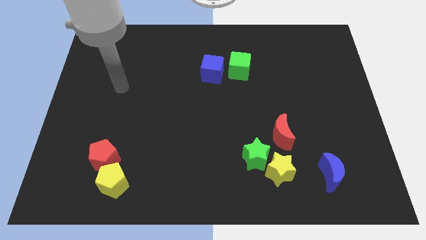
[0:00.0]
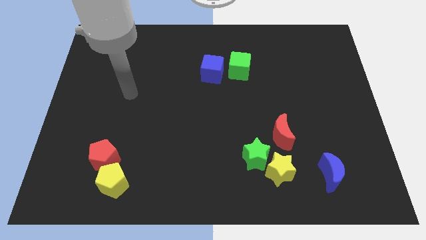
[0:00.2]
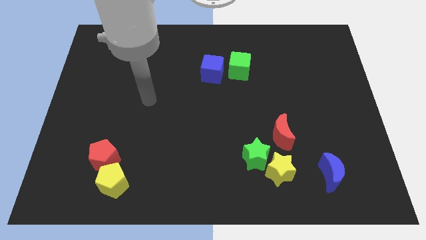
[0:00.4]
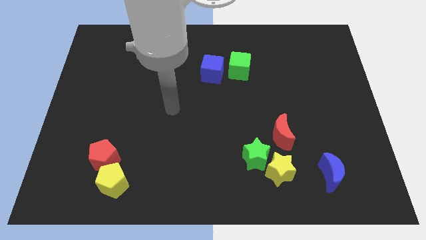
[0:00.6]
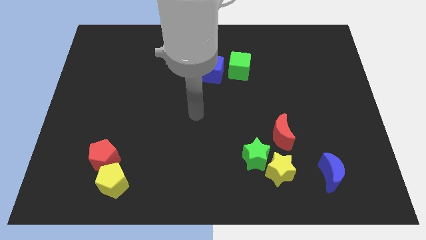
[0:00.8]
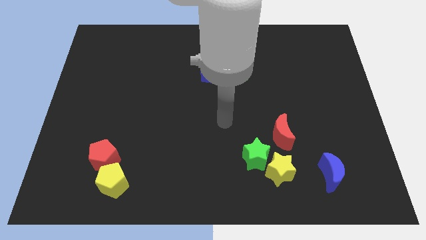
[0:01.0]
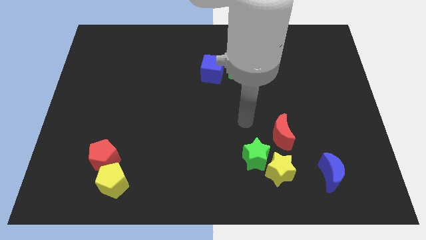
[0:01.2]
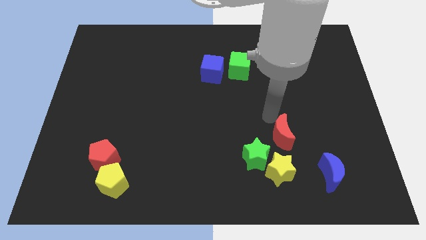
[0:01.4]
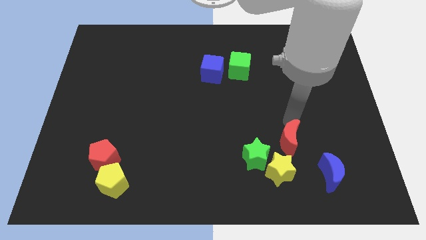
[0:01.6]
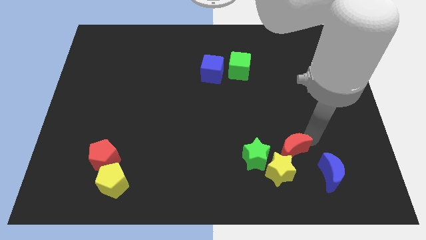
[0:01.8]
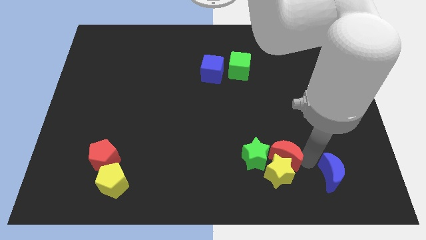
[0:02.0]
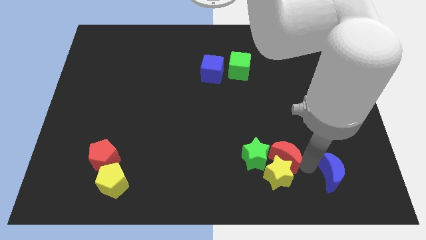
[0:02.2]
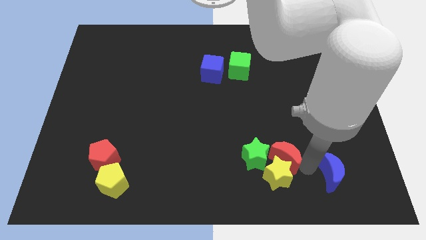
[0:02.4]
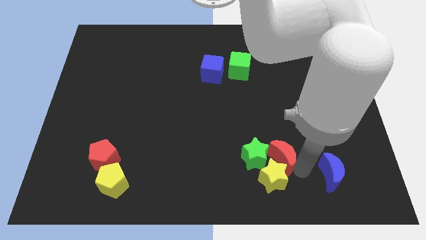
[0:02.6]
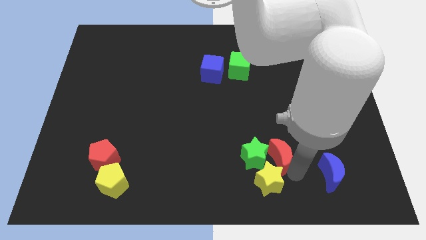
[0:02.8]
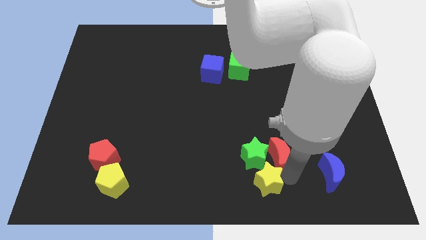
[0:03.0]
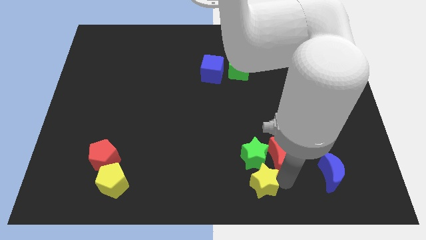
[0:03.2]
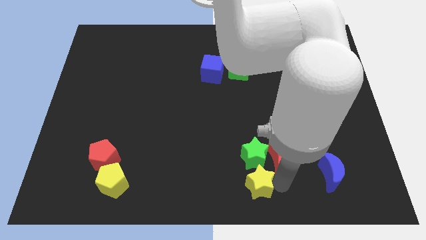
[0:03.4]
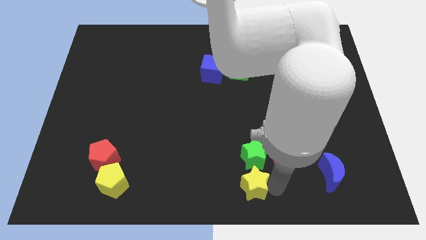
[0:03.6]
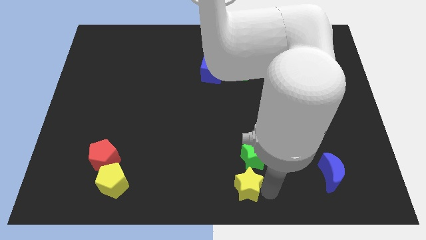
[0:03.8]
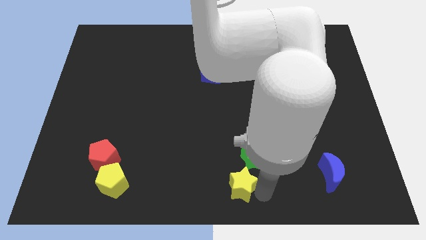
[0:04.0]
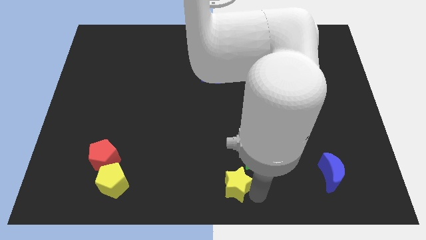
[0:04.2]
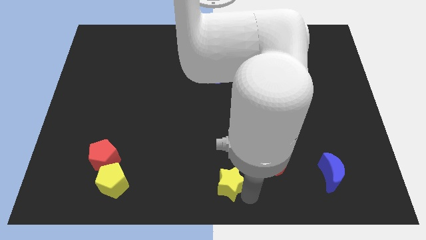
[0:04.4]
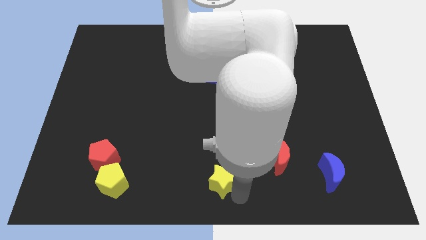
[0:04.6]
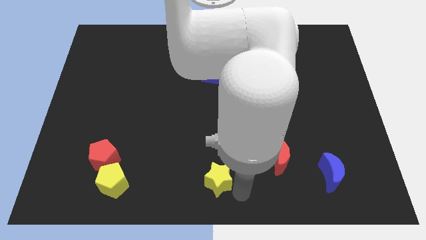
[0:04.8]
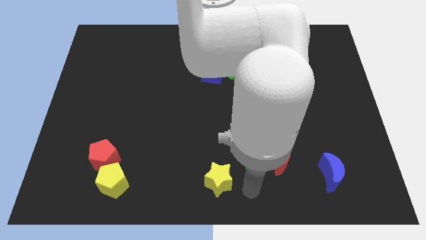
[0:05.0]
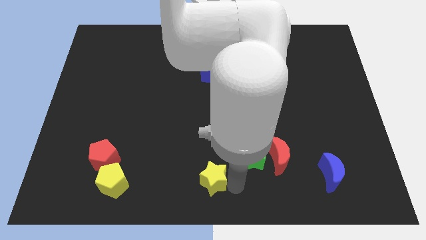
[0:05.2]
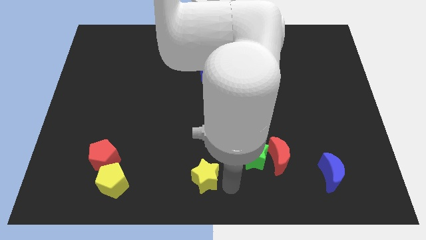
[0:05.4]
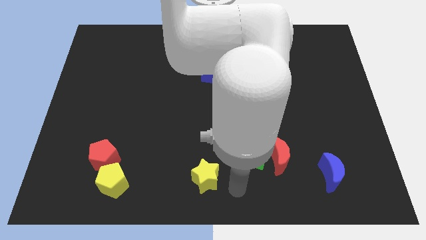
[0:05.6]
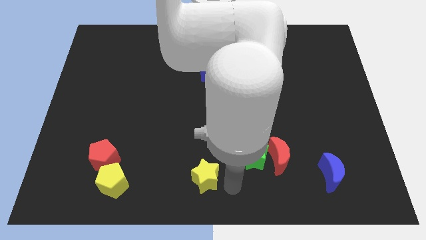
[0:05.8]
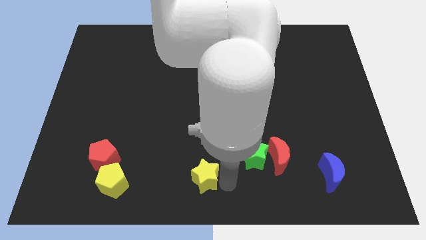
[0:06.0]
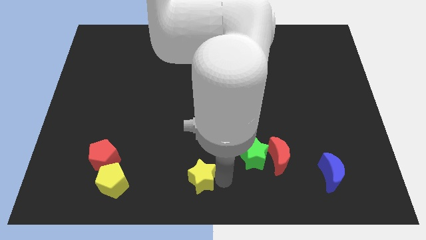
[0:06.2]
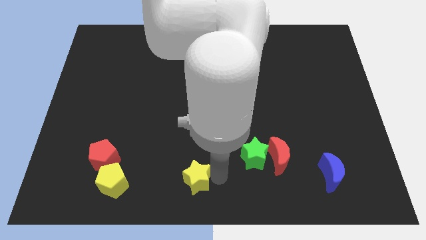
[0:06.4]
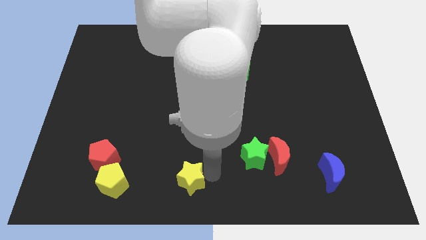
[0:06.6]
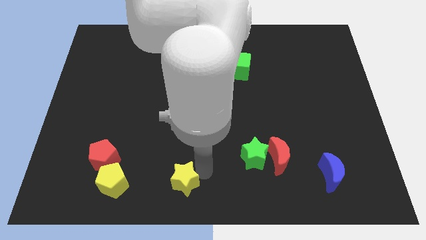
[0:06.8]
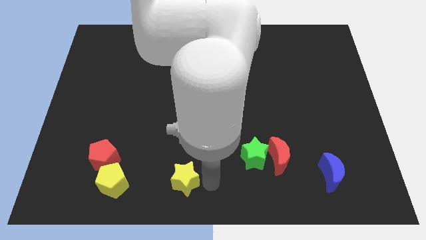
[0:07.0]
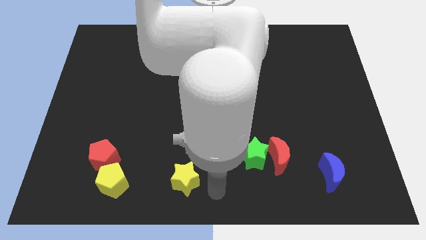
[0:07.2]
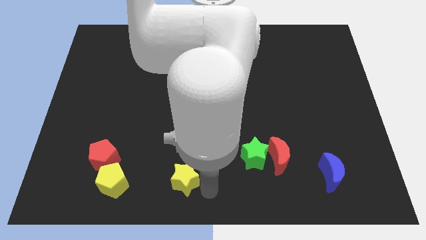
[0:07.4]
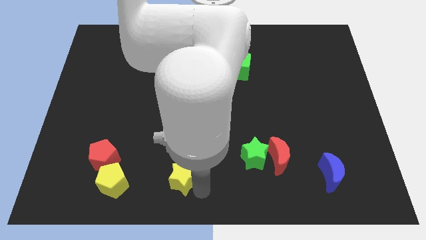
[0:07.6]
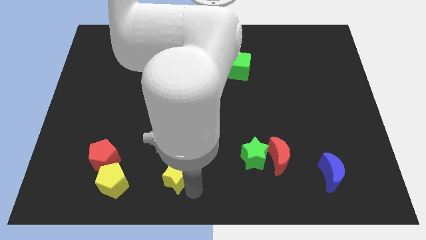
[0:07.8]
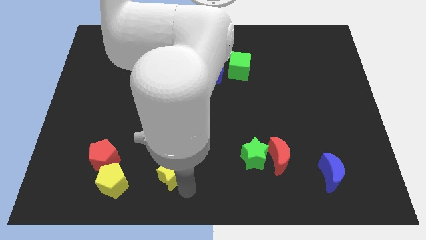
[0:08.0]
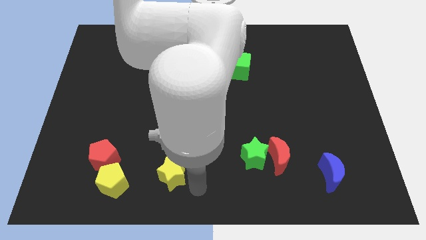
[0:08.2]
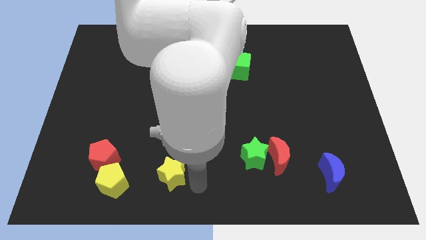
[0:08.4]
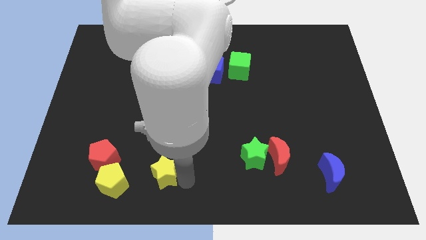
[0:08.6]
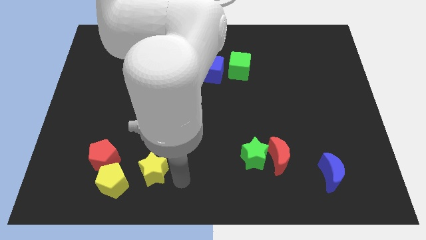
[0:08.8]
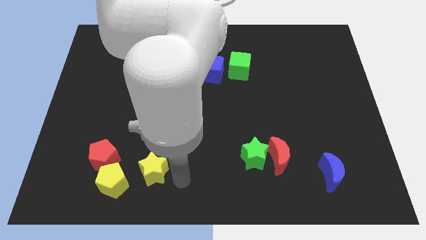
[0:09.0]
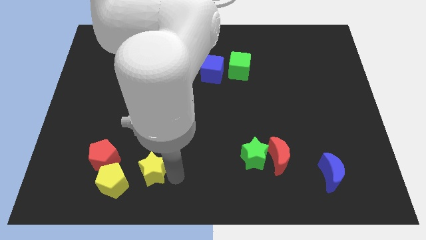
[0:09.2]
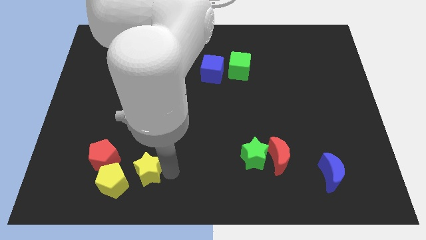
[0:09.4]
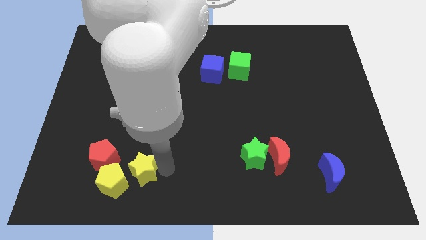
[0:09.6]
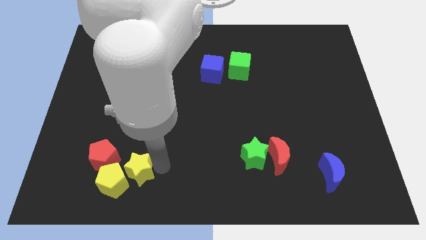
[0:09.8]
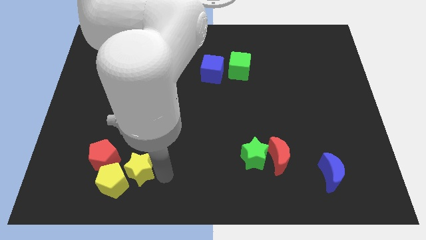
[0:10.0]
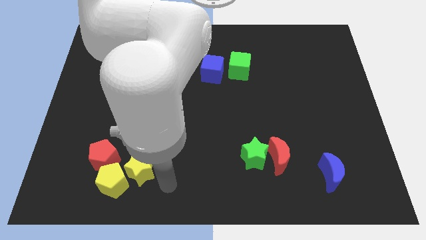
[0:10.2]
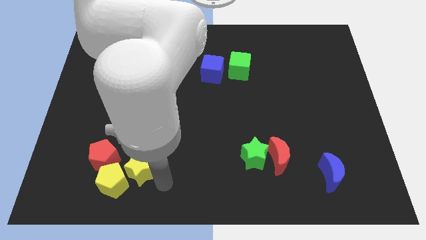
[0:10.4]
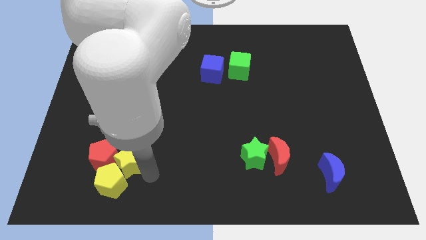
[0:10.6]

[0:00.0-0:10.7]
slide the yellow star close to the red pentagon

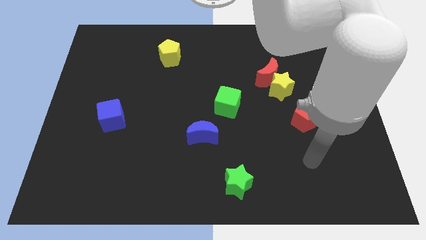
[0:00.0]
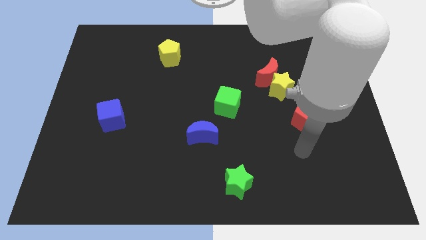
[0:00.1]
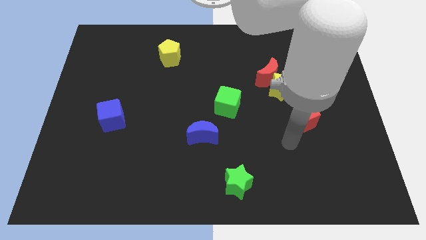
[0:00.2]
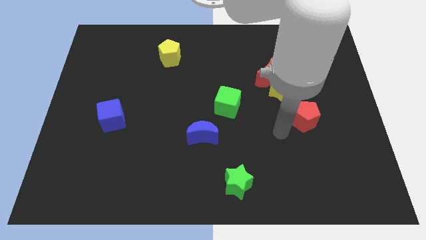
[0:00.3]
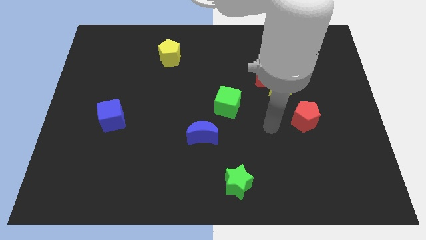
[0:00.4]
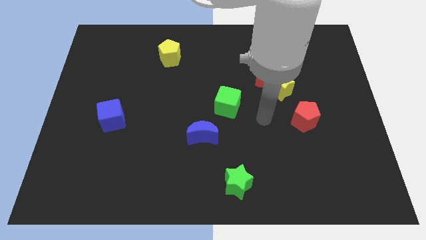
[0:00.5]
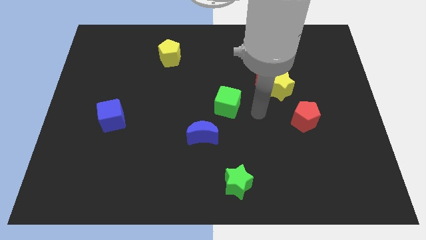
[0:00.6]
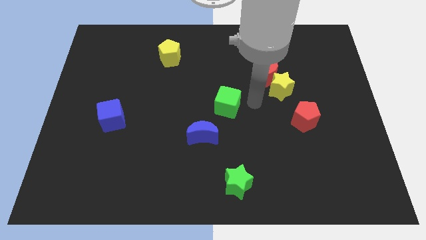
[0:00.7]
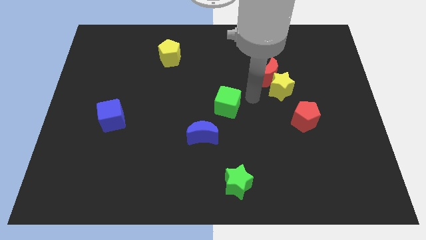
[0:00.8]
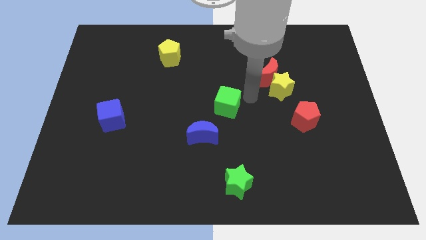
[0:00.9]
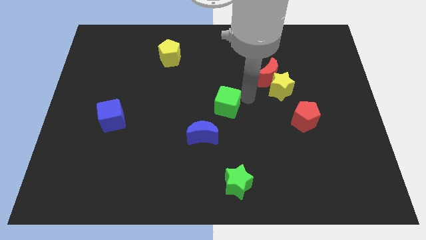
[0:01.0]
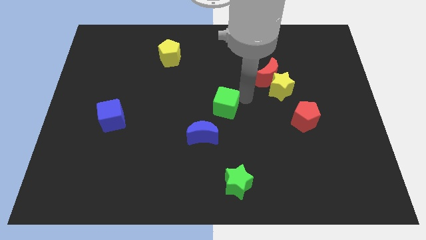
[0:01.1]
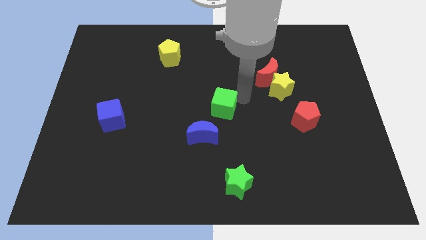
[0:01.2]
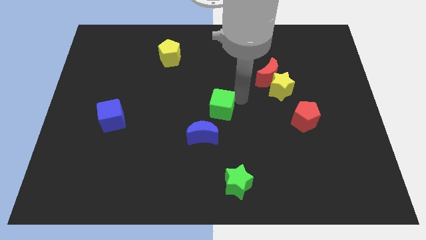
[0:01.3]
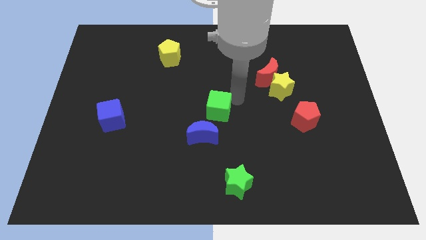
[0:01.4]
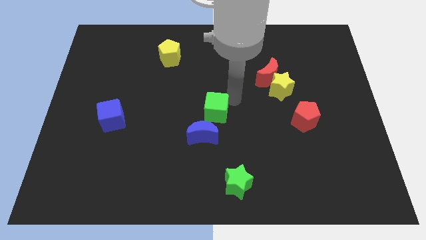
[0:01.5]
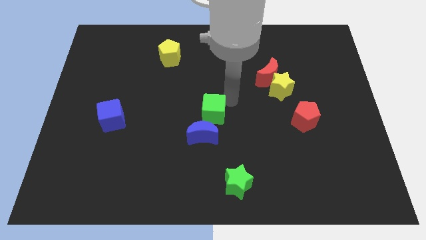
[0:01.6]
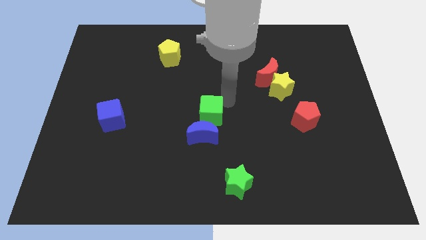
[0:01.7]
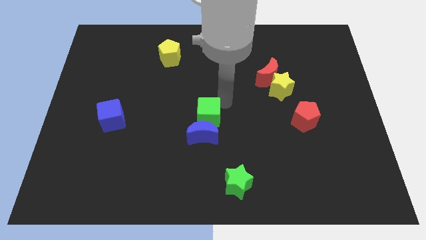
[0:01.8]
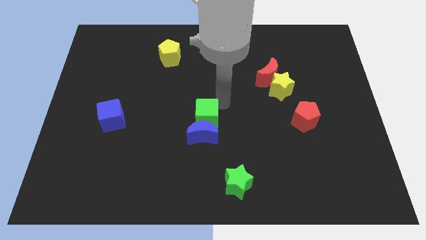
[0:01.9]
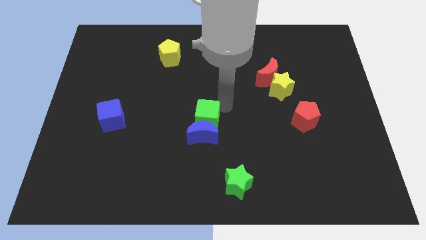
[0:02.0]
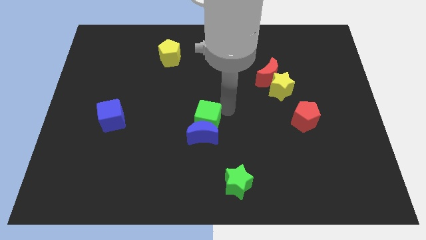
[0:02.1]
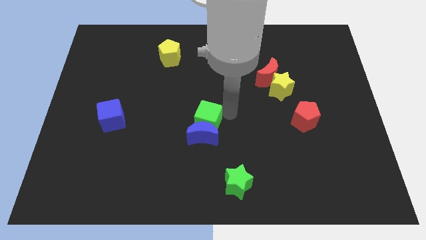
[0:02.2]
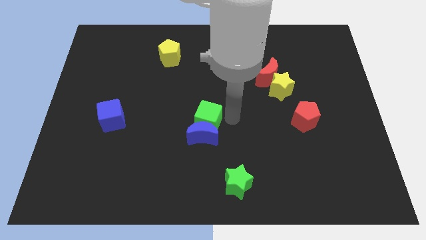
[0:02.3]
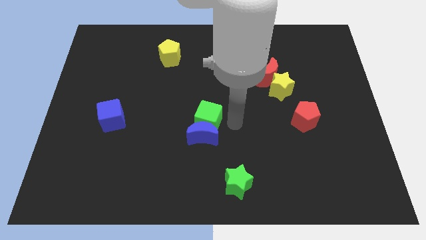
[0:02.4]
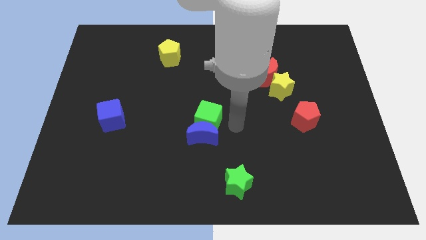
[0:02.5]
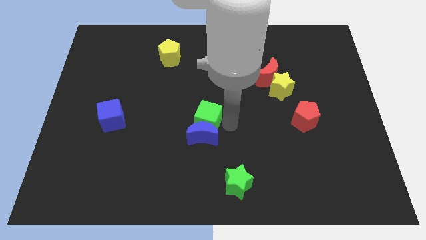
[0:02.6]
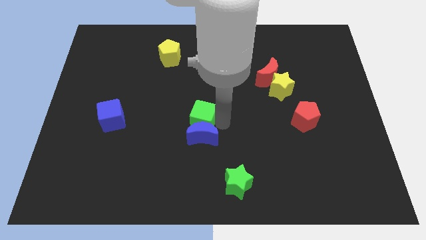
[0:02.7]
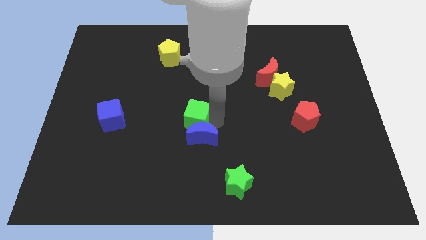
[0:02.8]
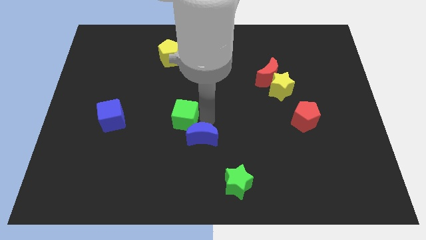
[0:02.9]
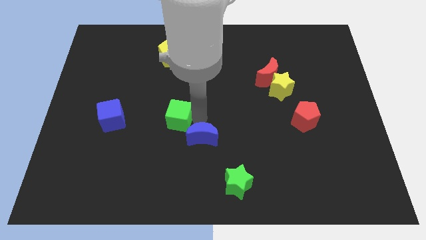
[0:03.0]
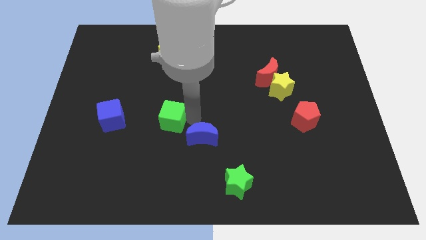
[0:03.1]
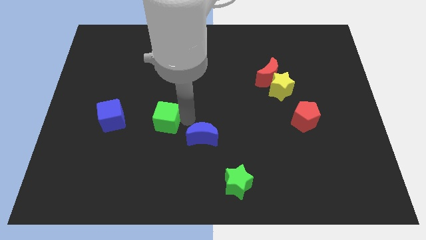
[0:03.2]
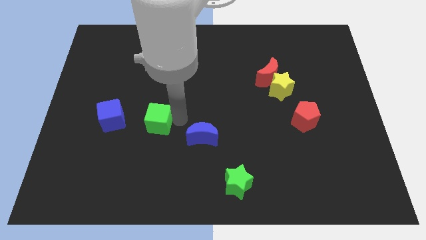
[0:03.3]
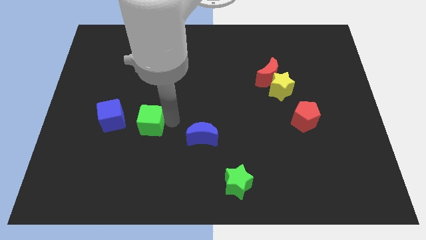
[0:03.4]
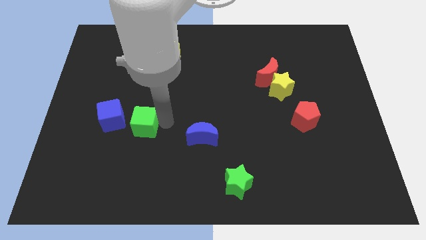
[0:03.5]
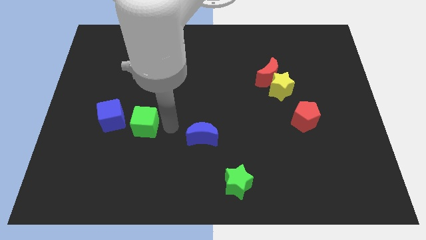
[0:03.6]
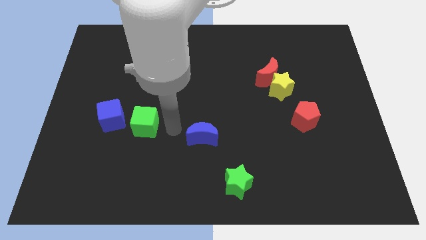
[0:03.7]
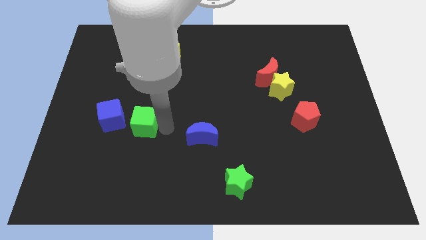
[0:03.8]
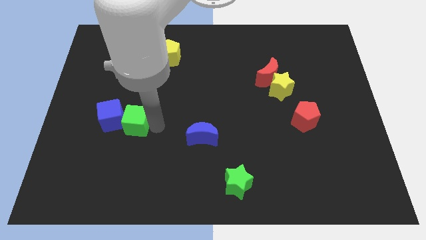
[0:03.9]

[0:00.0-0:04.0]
move the green cube towards the blue cube
